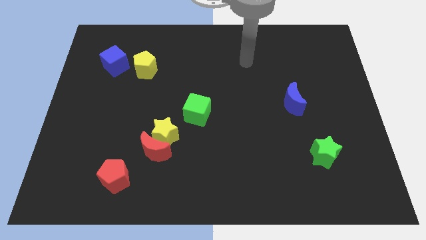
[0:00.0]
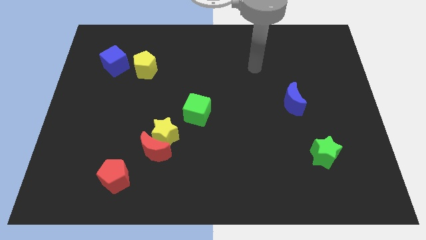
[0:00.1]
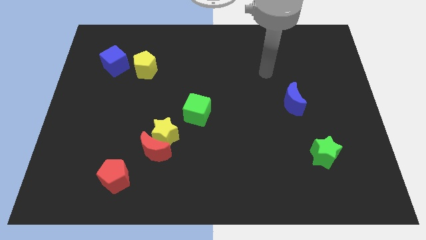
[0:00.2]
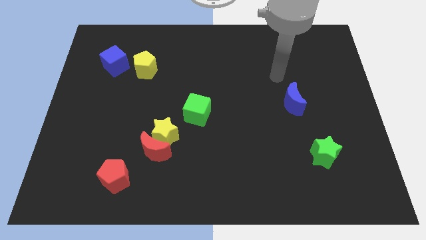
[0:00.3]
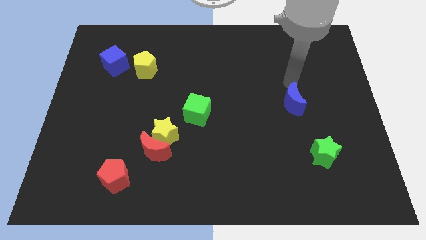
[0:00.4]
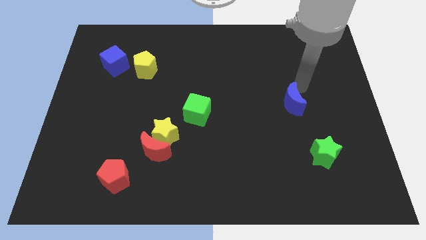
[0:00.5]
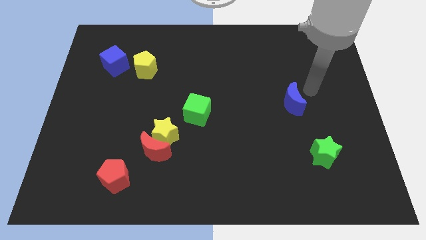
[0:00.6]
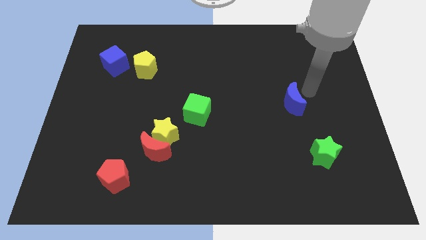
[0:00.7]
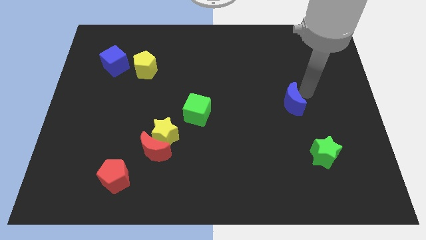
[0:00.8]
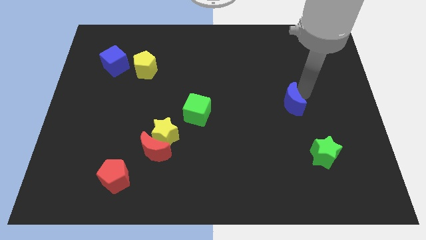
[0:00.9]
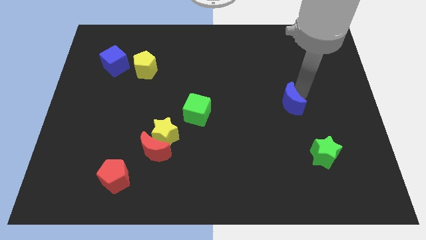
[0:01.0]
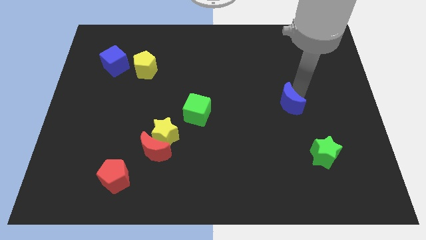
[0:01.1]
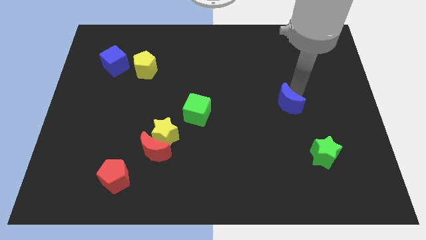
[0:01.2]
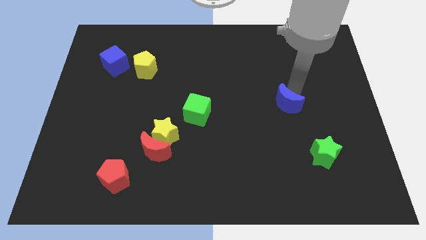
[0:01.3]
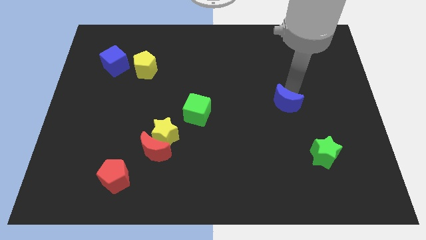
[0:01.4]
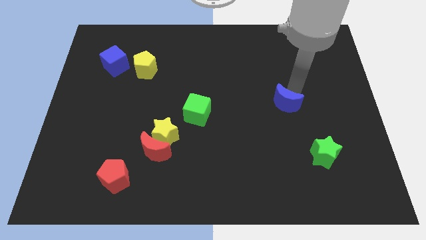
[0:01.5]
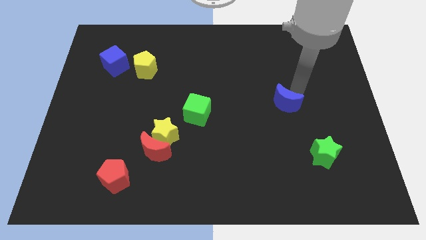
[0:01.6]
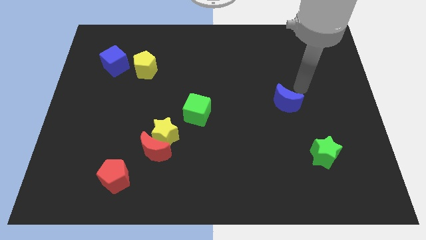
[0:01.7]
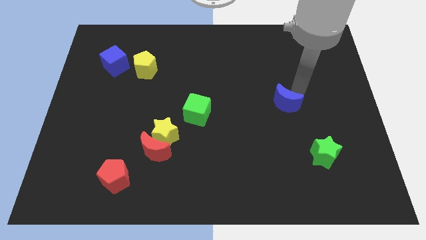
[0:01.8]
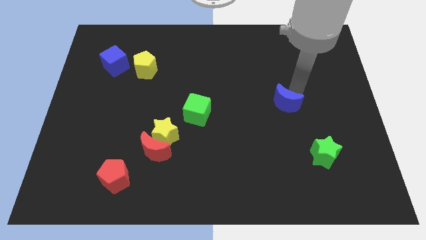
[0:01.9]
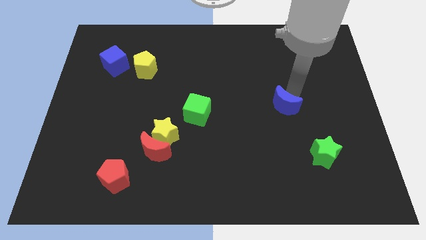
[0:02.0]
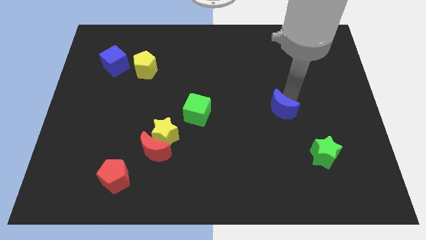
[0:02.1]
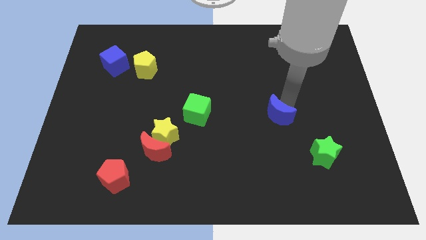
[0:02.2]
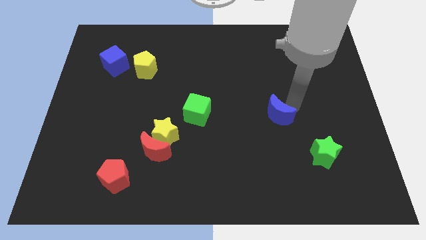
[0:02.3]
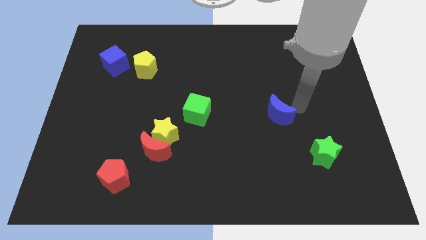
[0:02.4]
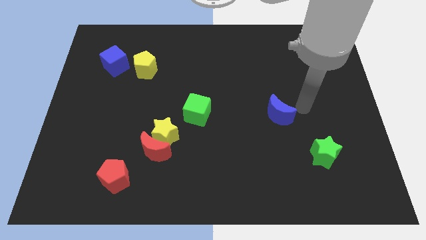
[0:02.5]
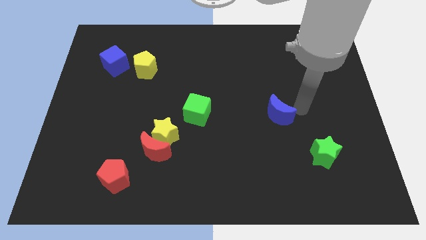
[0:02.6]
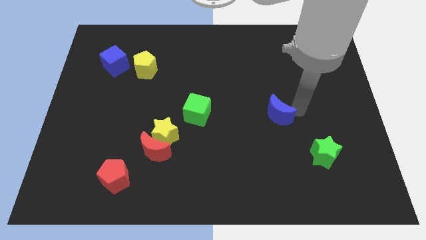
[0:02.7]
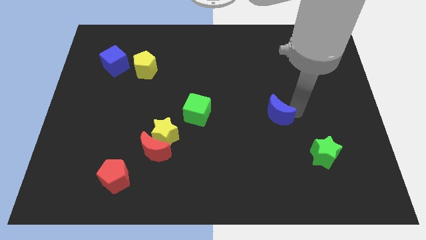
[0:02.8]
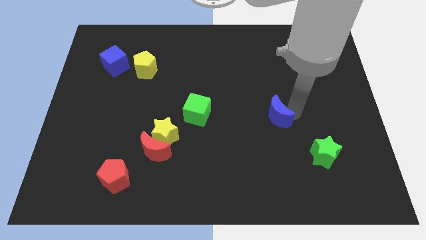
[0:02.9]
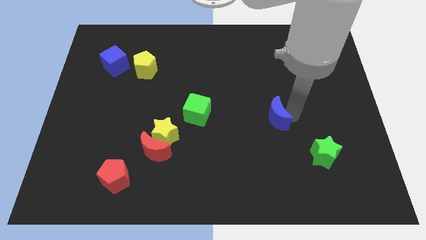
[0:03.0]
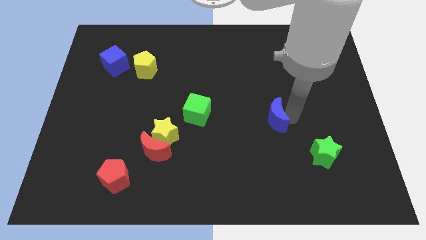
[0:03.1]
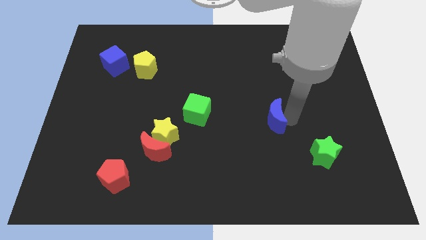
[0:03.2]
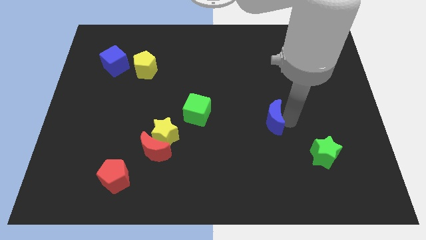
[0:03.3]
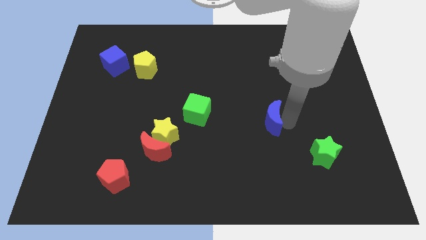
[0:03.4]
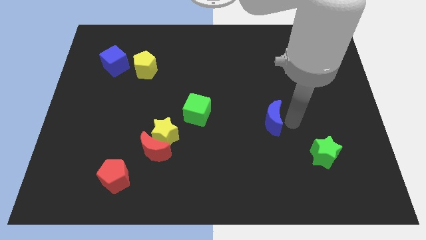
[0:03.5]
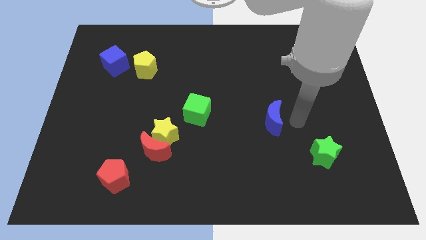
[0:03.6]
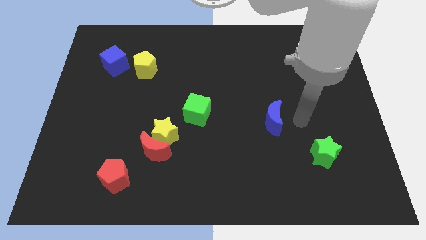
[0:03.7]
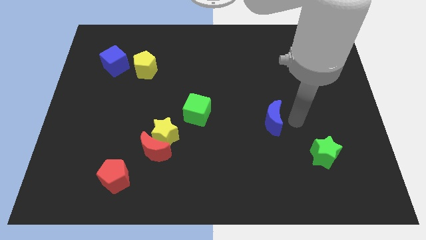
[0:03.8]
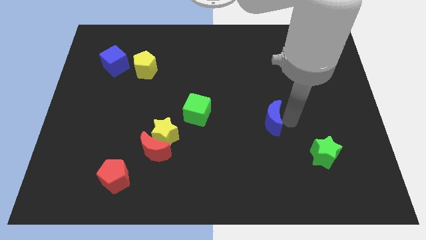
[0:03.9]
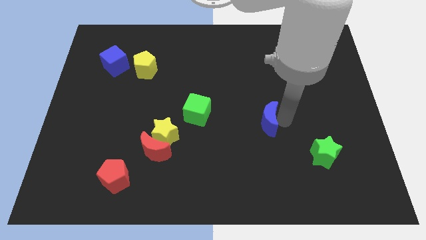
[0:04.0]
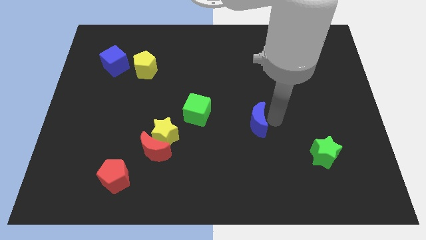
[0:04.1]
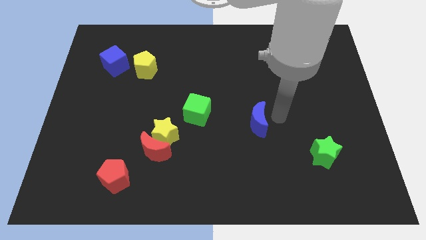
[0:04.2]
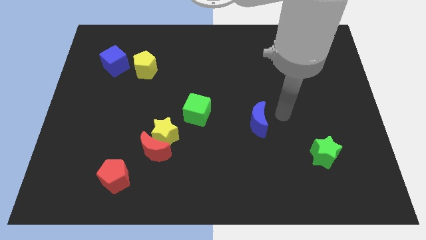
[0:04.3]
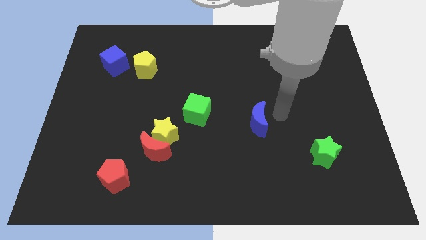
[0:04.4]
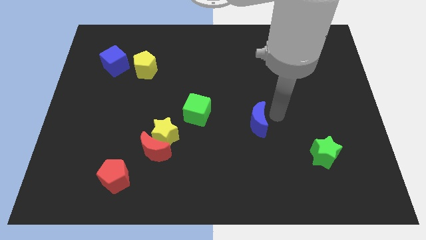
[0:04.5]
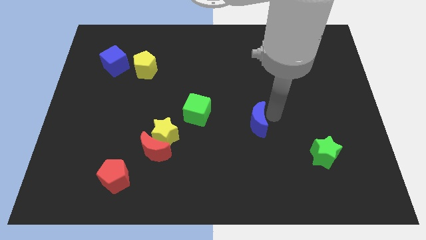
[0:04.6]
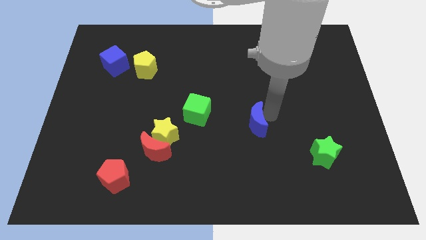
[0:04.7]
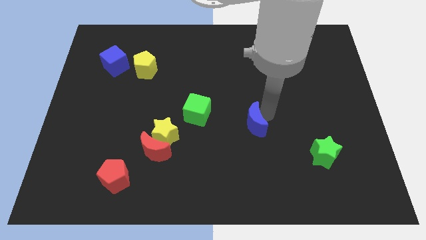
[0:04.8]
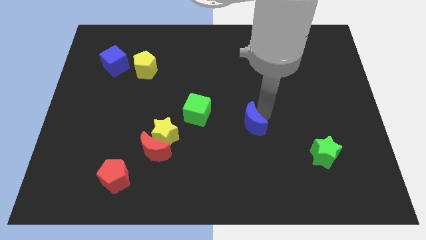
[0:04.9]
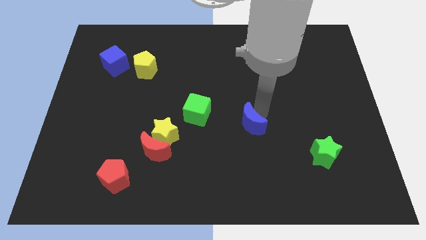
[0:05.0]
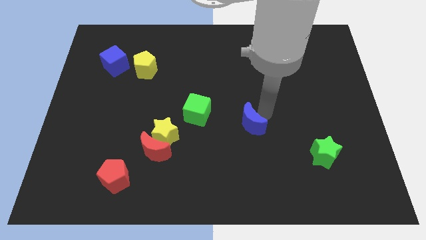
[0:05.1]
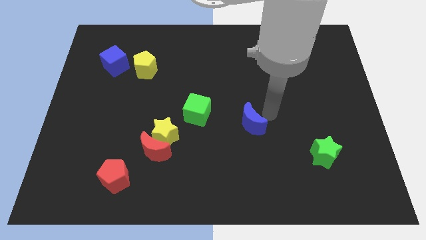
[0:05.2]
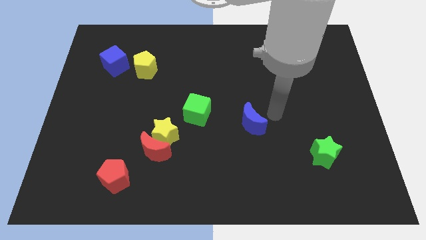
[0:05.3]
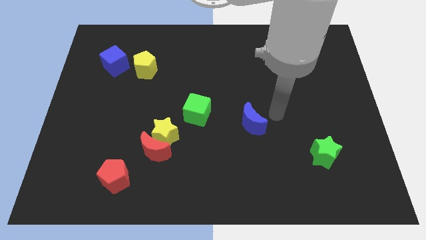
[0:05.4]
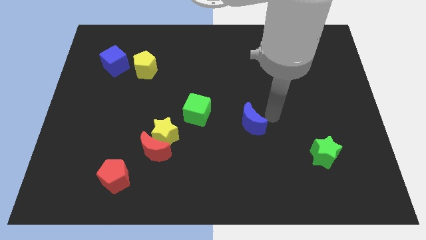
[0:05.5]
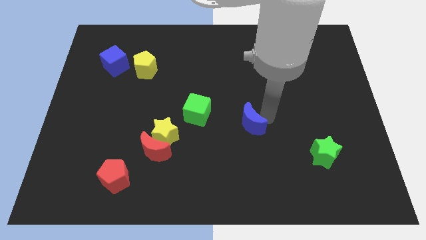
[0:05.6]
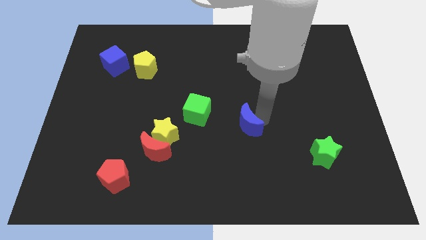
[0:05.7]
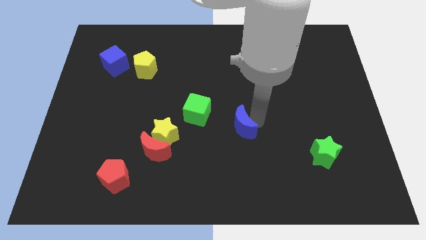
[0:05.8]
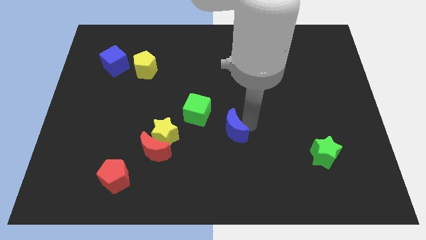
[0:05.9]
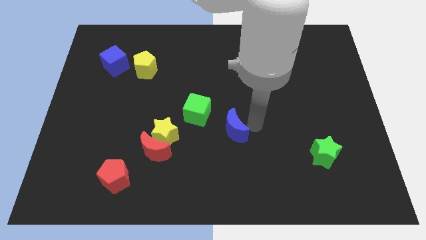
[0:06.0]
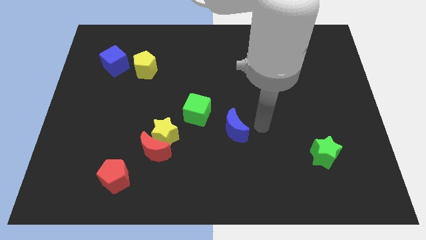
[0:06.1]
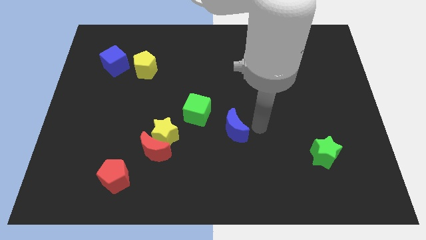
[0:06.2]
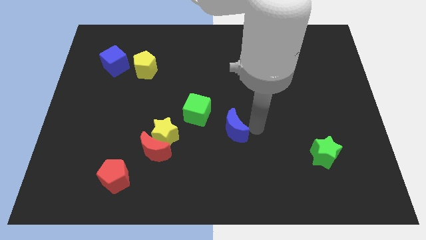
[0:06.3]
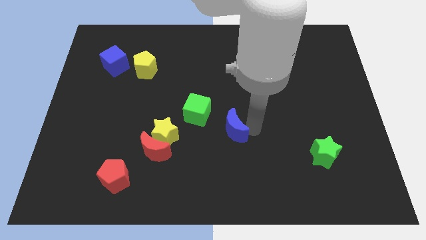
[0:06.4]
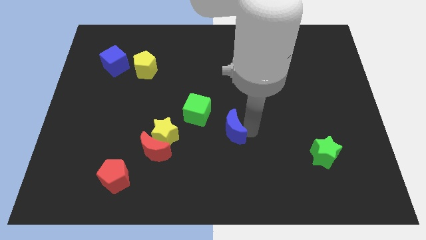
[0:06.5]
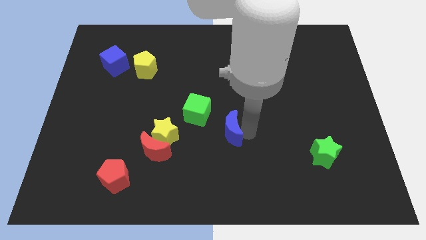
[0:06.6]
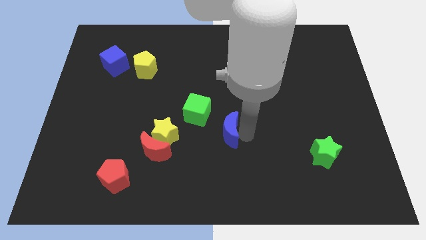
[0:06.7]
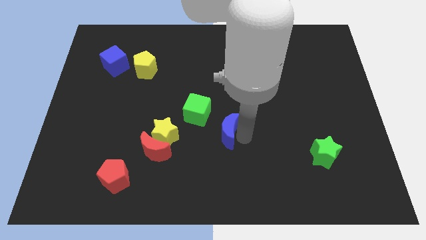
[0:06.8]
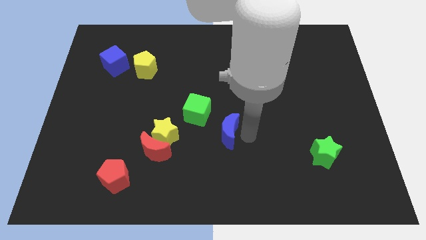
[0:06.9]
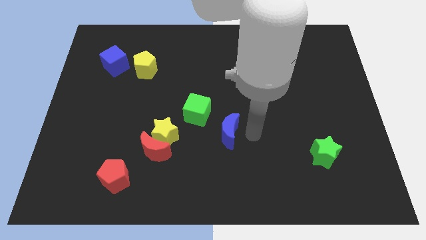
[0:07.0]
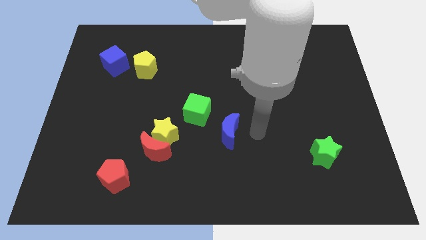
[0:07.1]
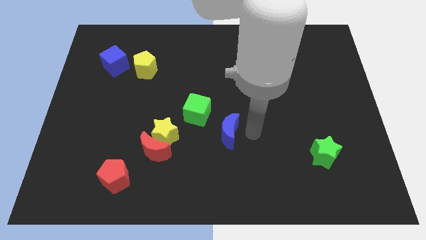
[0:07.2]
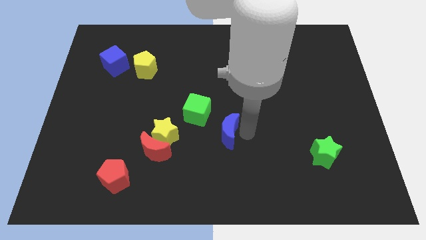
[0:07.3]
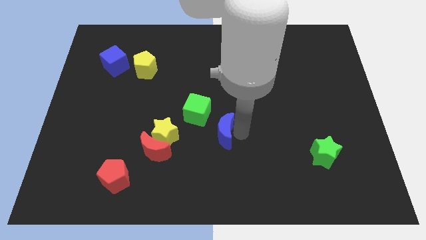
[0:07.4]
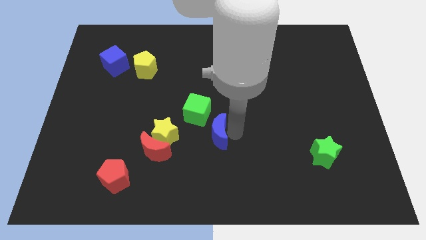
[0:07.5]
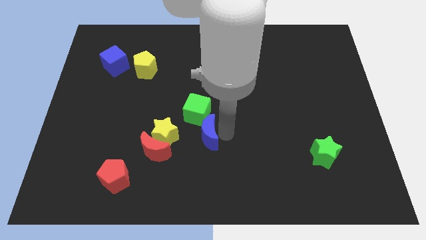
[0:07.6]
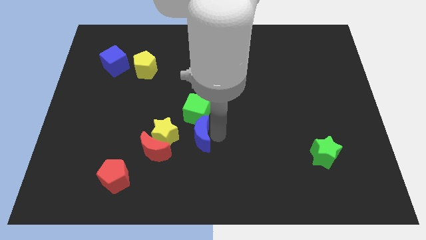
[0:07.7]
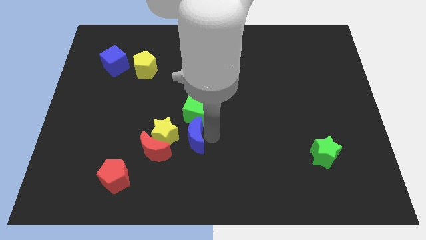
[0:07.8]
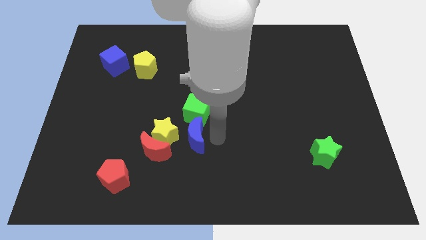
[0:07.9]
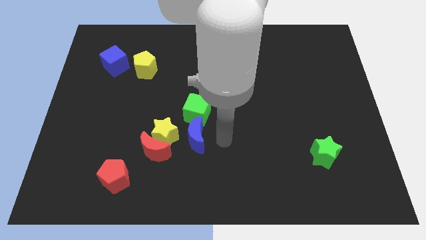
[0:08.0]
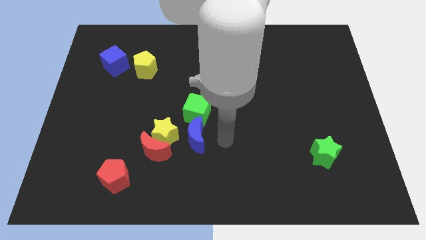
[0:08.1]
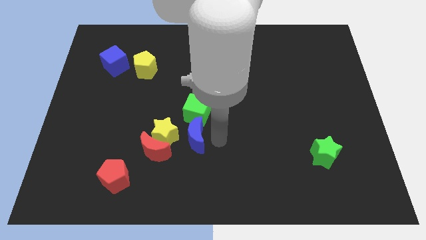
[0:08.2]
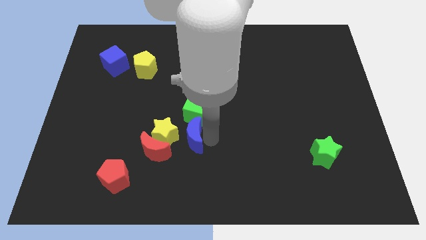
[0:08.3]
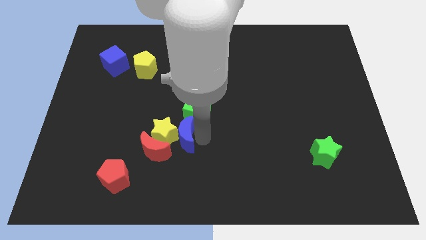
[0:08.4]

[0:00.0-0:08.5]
push the blue moon towards the yellow star
